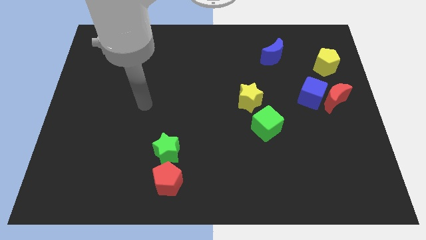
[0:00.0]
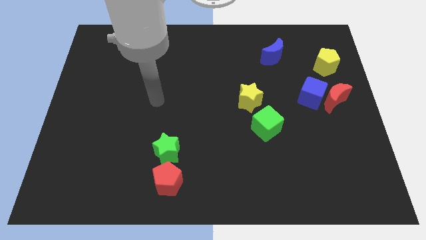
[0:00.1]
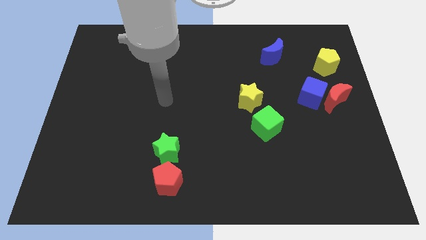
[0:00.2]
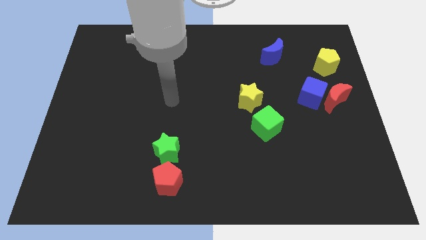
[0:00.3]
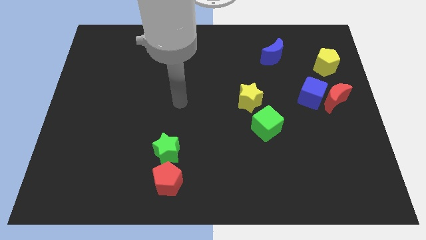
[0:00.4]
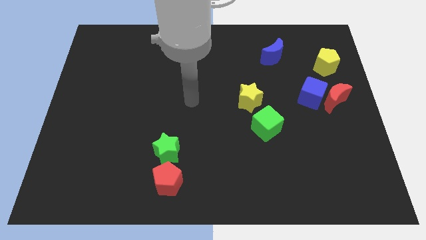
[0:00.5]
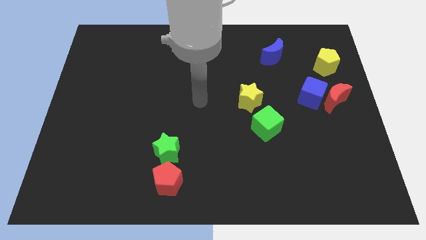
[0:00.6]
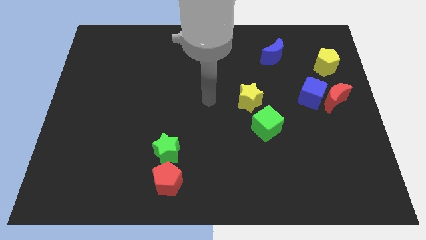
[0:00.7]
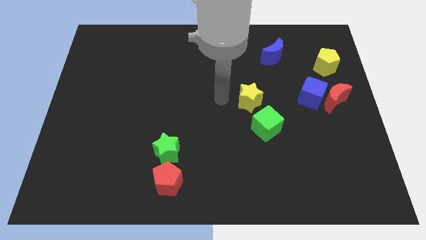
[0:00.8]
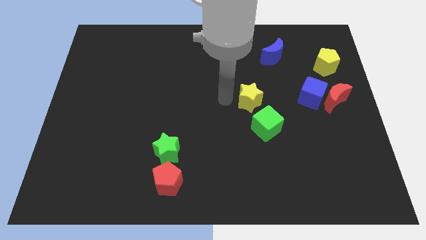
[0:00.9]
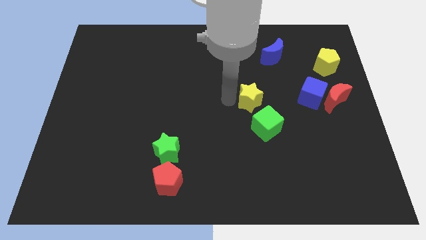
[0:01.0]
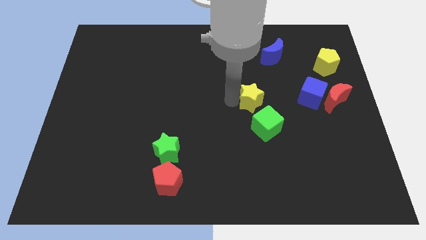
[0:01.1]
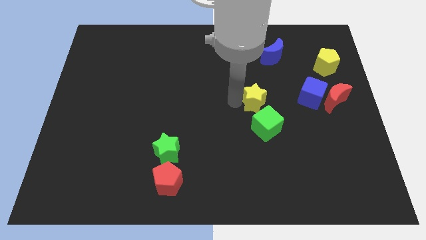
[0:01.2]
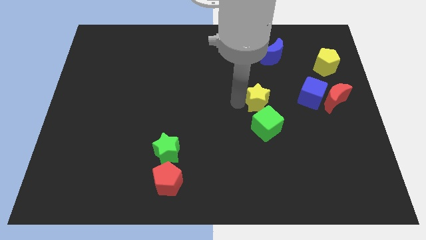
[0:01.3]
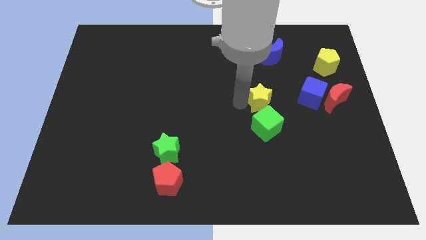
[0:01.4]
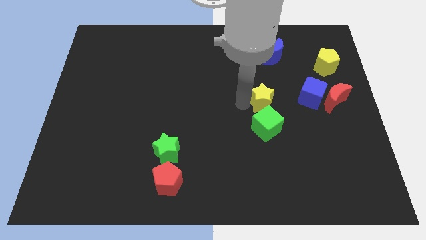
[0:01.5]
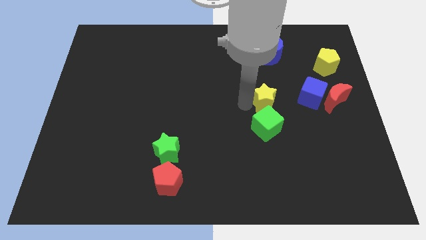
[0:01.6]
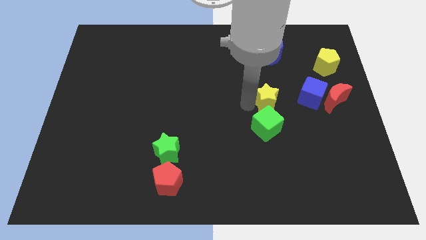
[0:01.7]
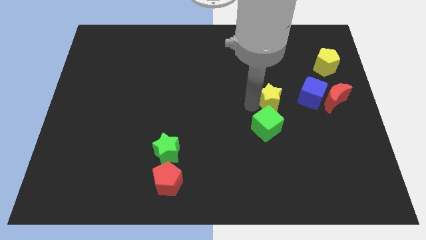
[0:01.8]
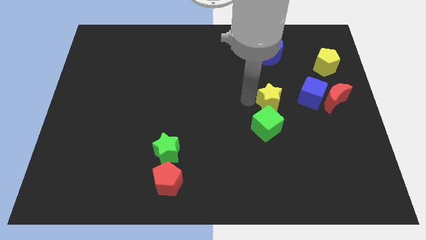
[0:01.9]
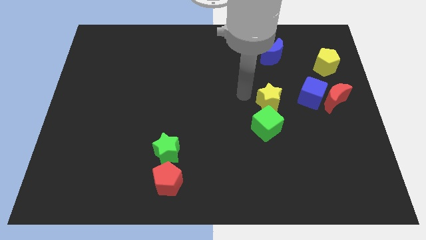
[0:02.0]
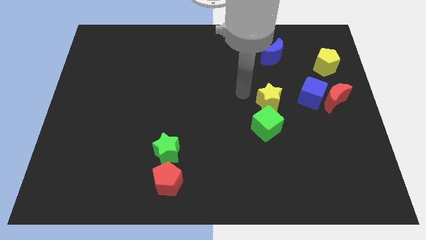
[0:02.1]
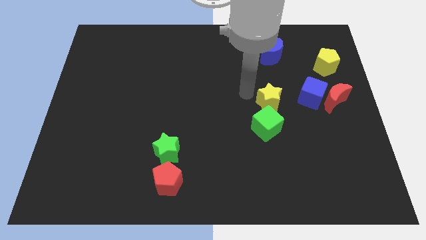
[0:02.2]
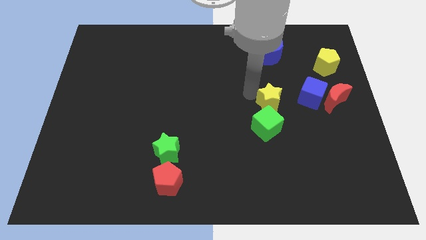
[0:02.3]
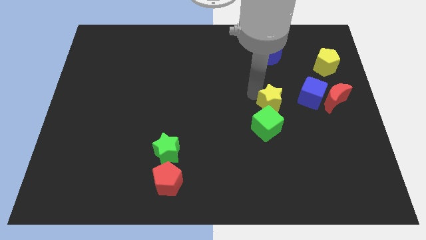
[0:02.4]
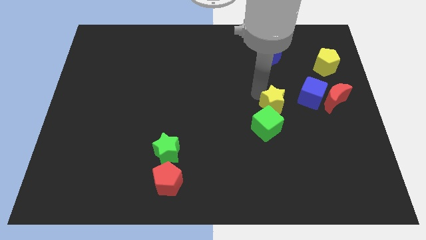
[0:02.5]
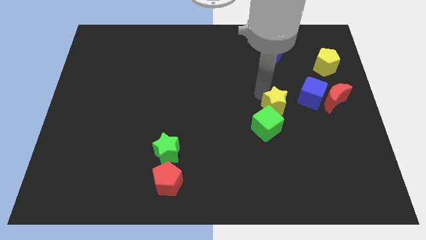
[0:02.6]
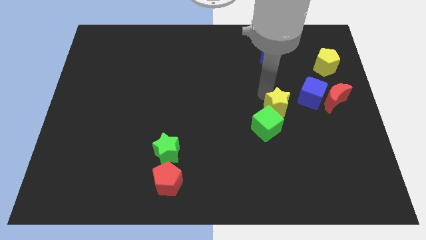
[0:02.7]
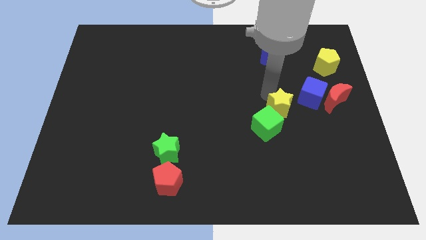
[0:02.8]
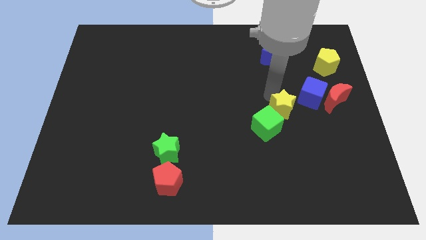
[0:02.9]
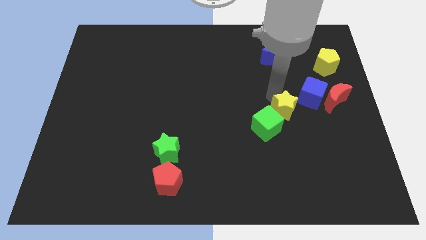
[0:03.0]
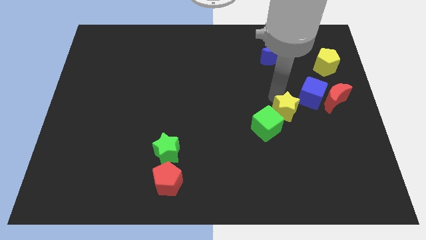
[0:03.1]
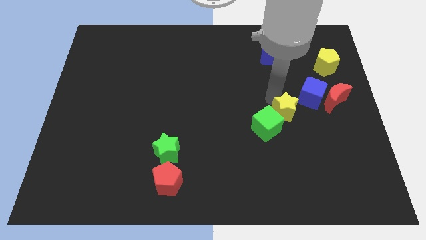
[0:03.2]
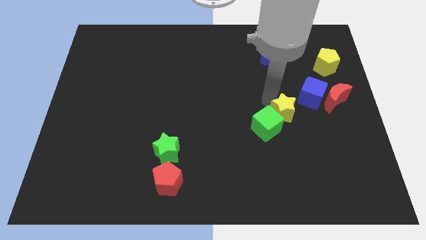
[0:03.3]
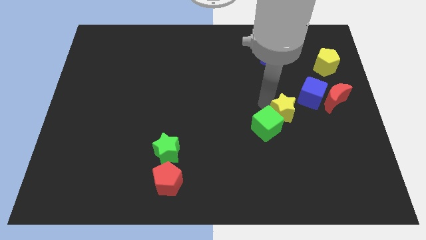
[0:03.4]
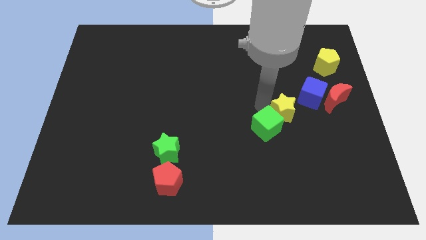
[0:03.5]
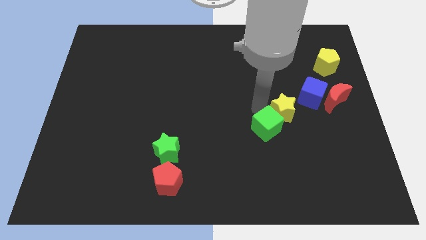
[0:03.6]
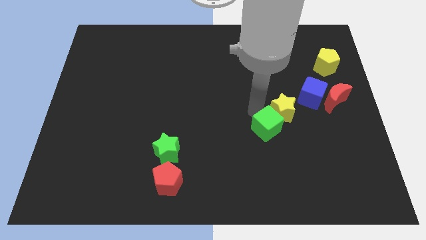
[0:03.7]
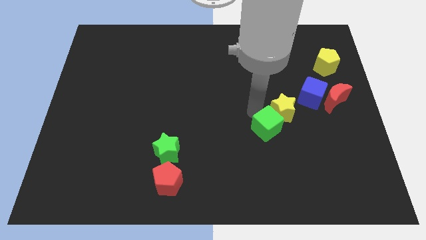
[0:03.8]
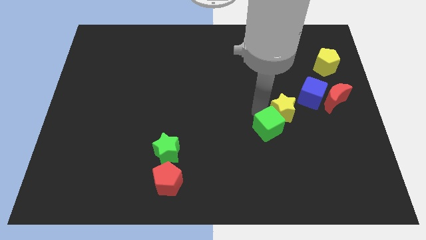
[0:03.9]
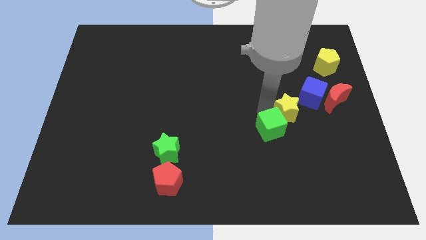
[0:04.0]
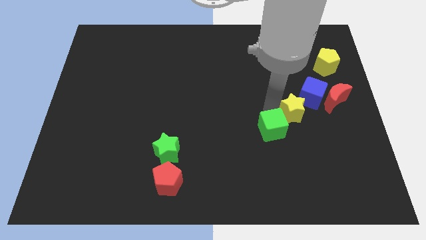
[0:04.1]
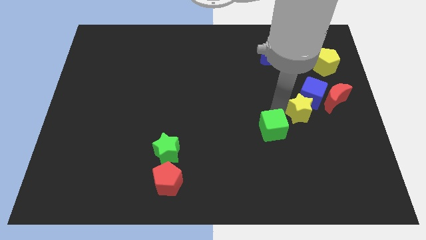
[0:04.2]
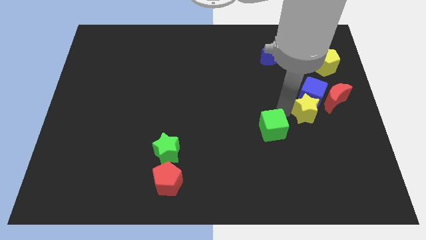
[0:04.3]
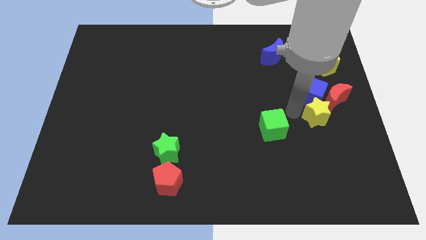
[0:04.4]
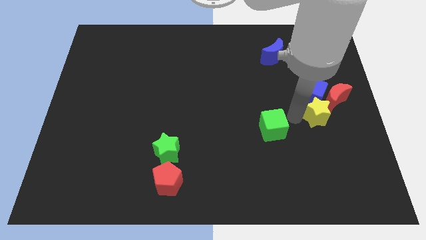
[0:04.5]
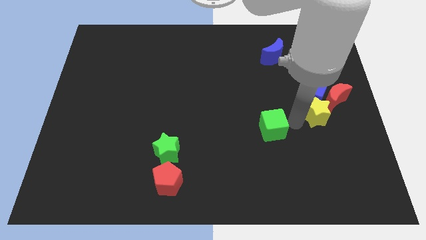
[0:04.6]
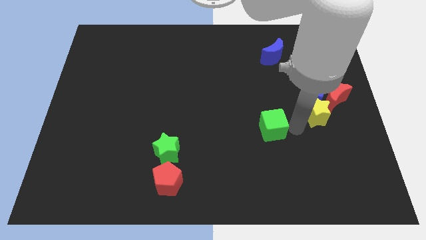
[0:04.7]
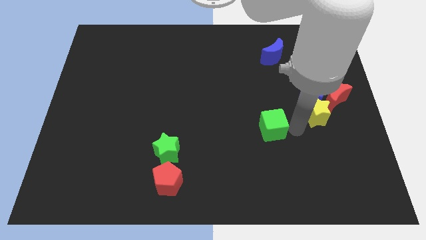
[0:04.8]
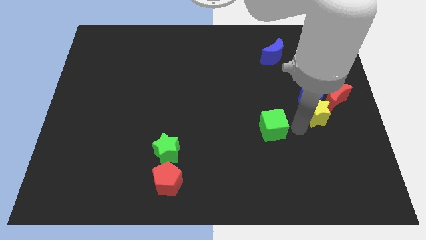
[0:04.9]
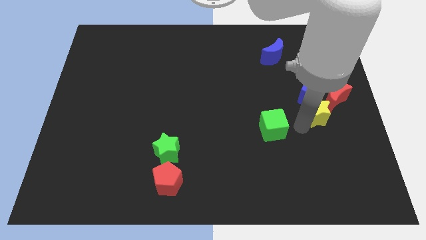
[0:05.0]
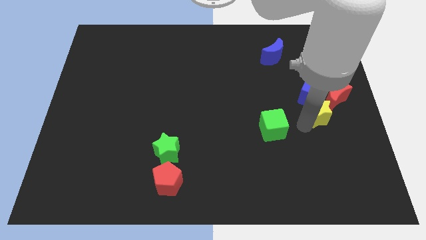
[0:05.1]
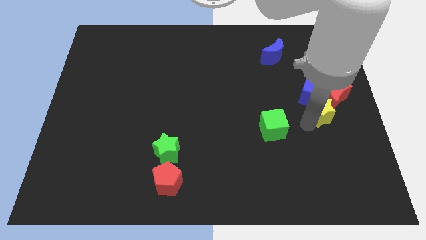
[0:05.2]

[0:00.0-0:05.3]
slide the yellow star to the red moon

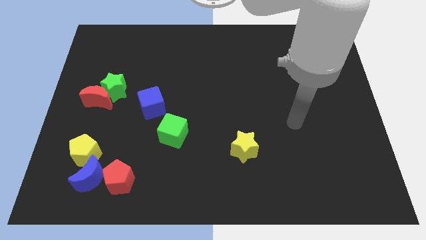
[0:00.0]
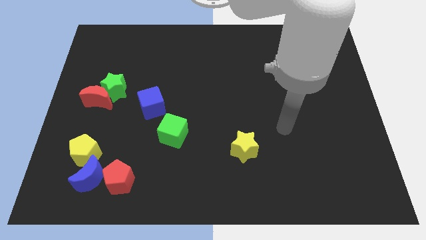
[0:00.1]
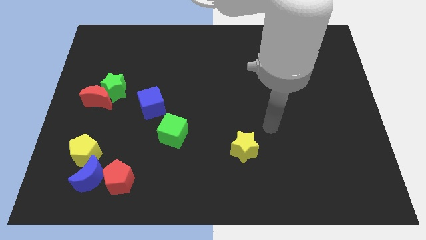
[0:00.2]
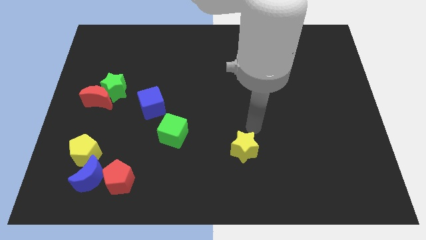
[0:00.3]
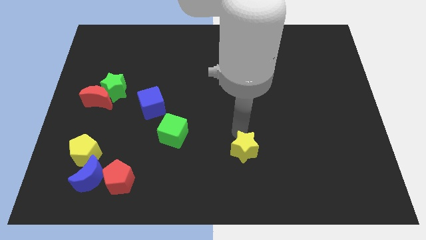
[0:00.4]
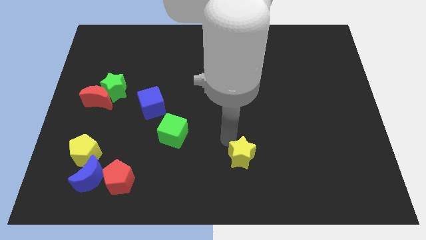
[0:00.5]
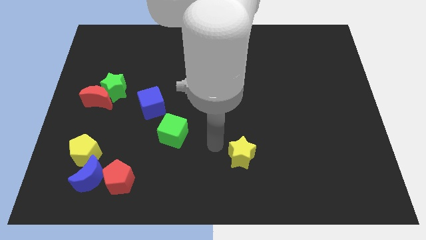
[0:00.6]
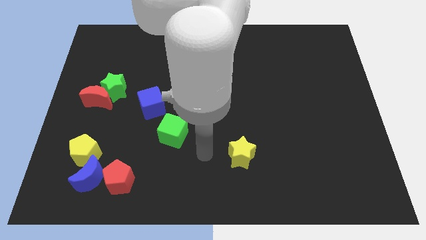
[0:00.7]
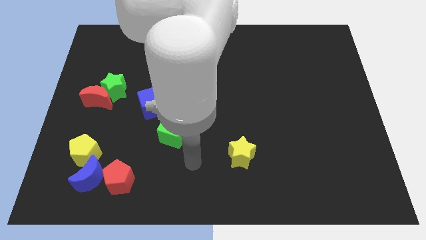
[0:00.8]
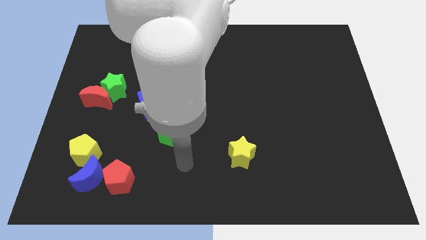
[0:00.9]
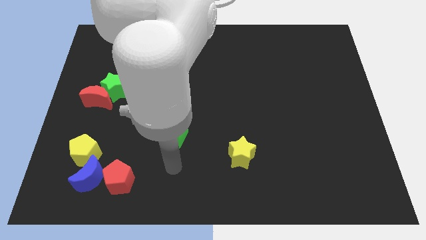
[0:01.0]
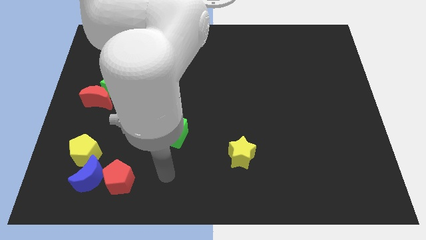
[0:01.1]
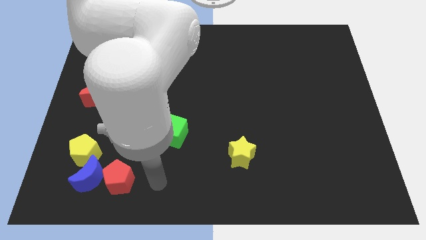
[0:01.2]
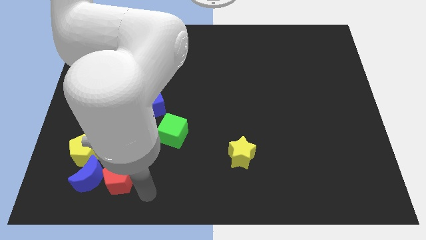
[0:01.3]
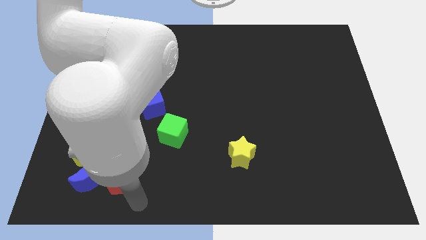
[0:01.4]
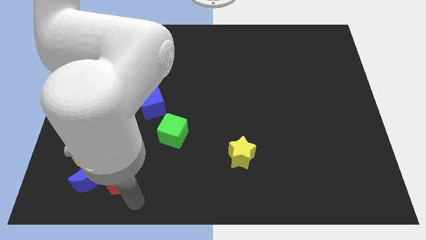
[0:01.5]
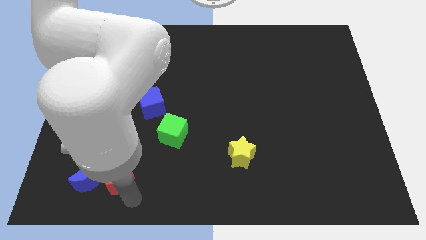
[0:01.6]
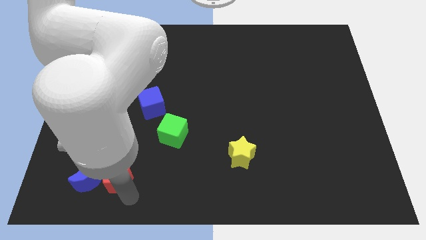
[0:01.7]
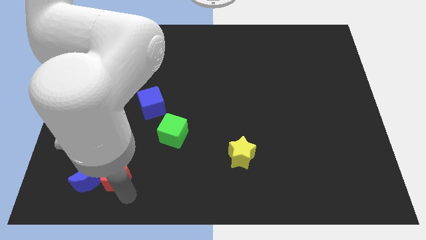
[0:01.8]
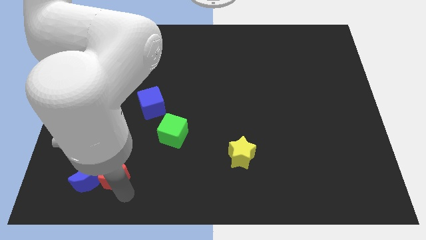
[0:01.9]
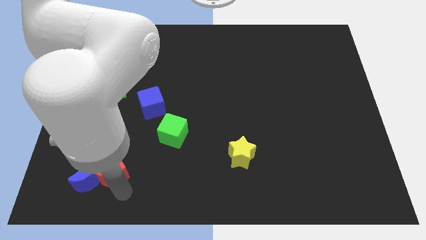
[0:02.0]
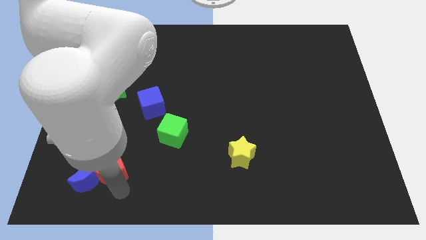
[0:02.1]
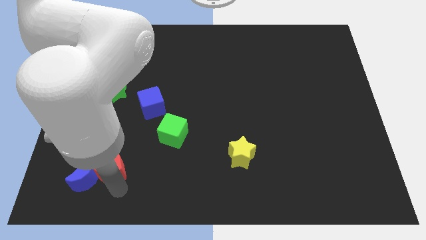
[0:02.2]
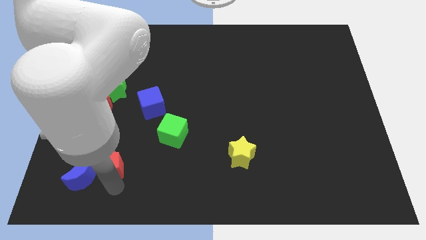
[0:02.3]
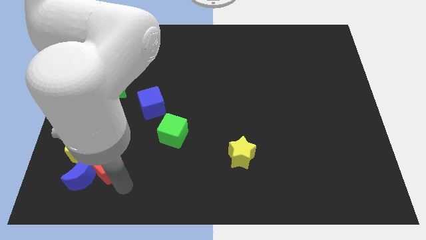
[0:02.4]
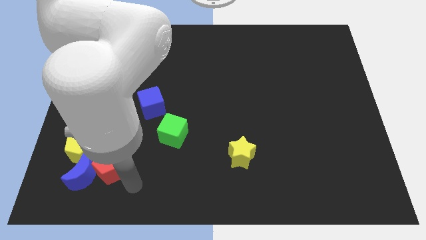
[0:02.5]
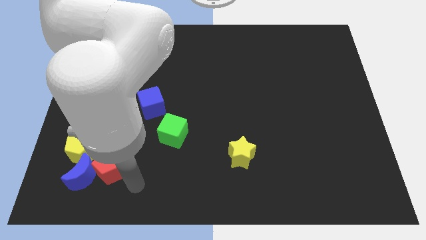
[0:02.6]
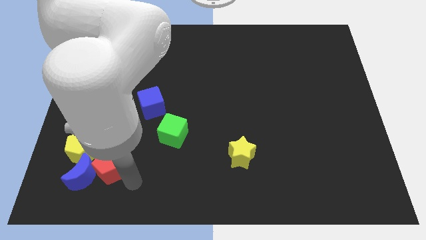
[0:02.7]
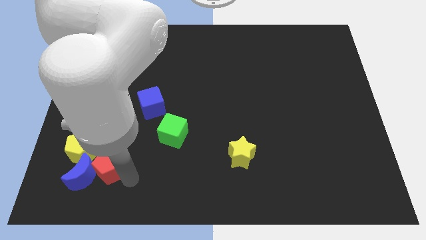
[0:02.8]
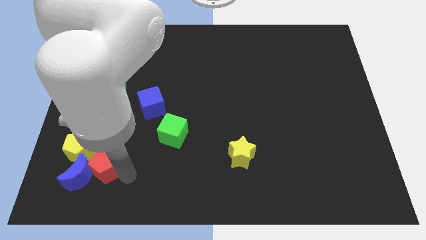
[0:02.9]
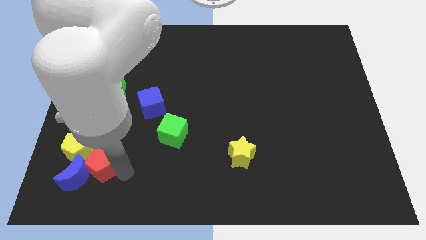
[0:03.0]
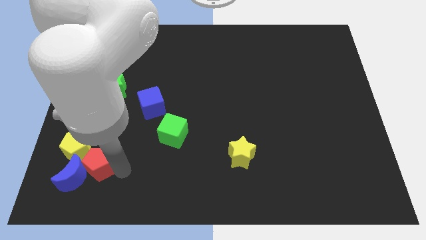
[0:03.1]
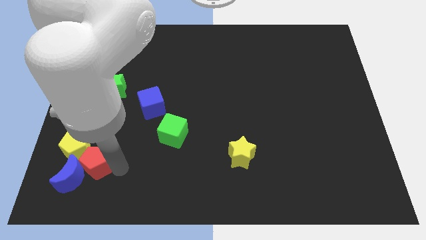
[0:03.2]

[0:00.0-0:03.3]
push the red pentagon next to the yellow pentagon
